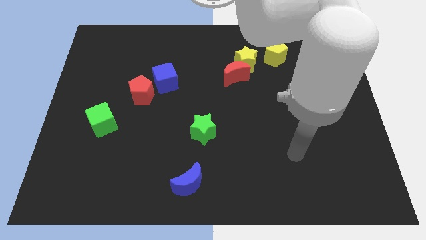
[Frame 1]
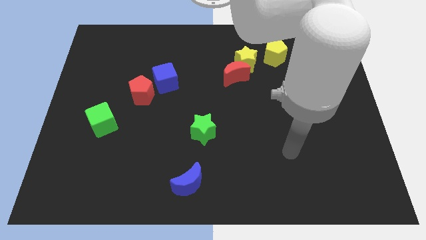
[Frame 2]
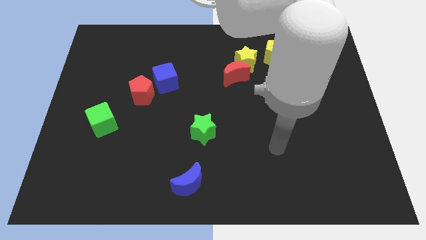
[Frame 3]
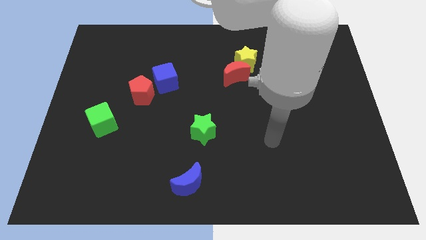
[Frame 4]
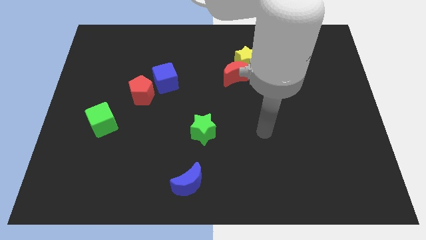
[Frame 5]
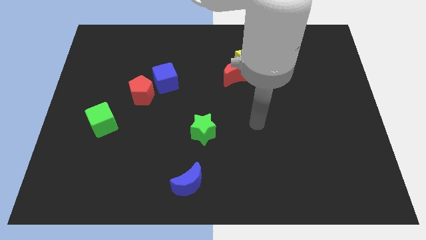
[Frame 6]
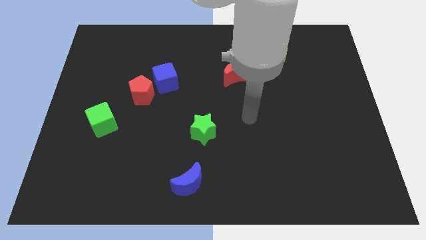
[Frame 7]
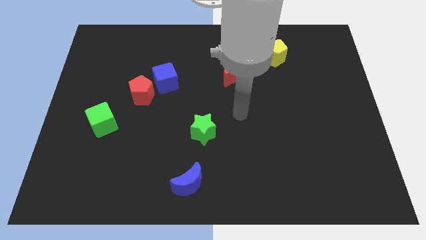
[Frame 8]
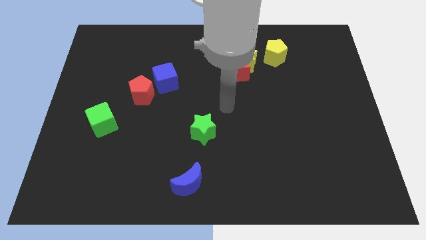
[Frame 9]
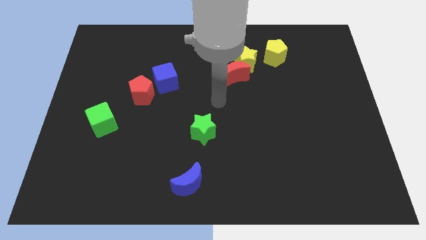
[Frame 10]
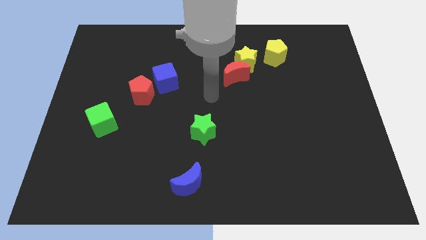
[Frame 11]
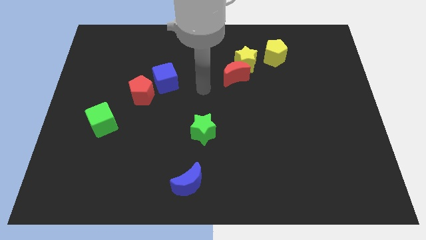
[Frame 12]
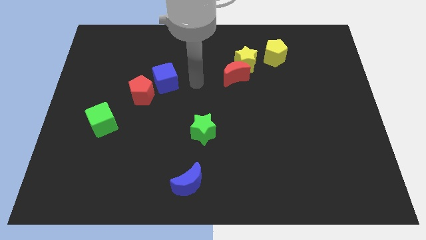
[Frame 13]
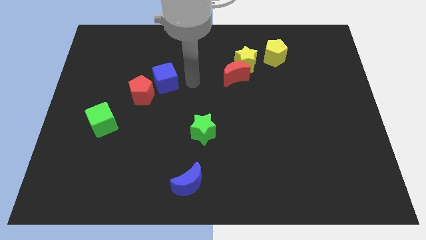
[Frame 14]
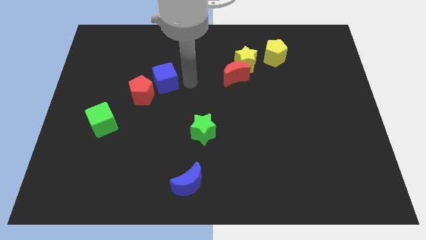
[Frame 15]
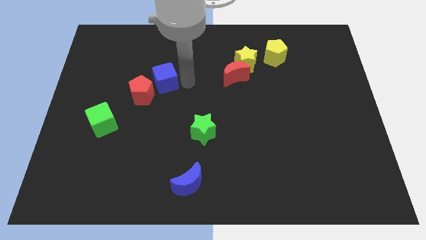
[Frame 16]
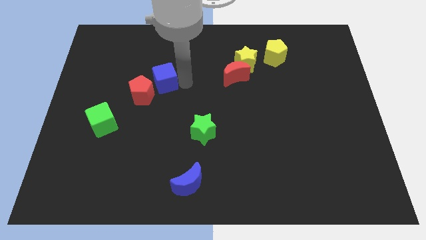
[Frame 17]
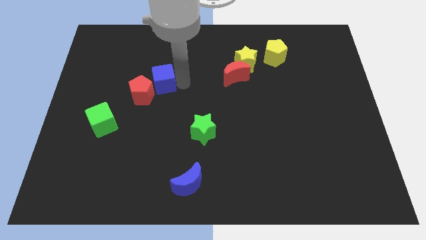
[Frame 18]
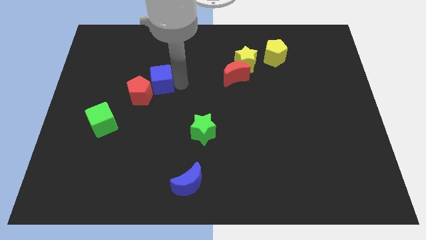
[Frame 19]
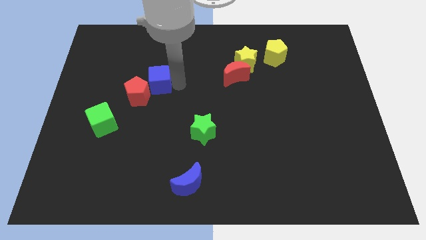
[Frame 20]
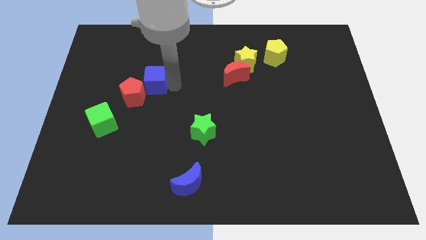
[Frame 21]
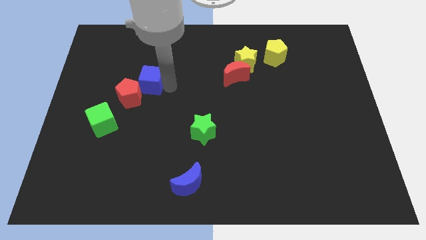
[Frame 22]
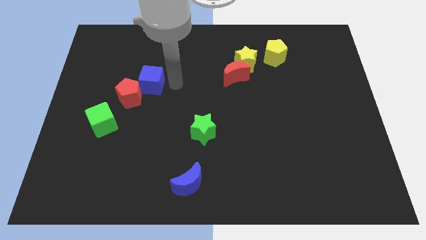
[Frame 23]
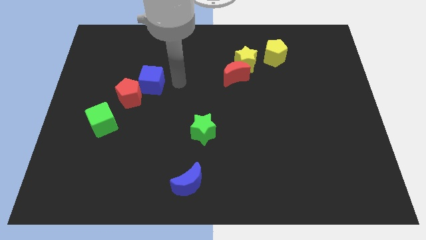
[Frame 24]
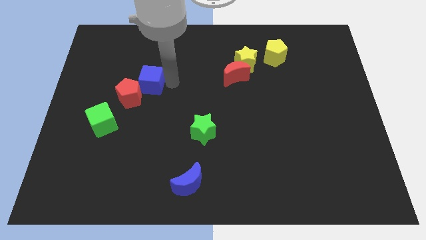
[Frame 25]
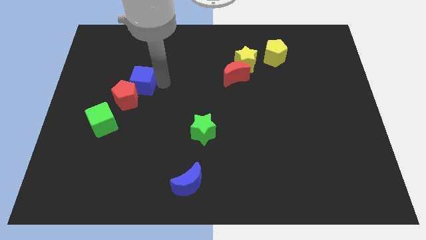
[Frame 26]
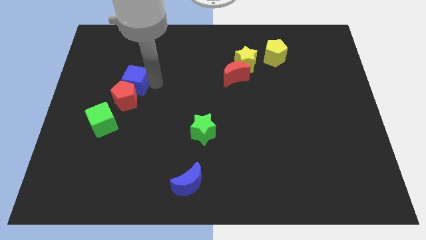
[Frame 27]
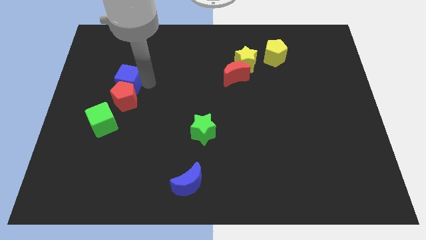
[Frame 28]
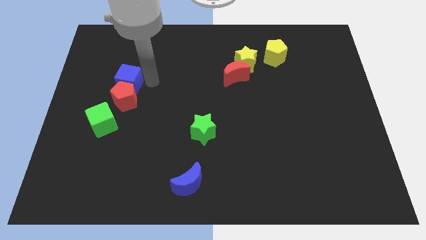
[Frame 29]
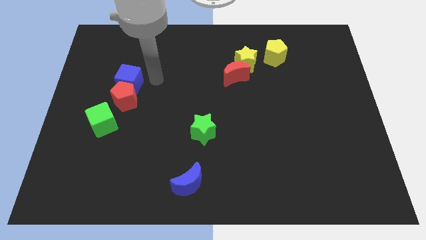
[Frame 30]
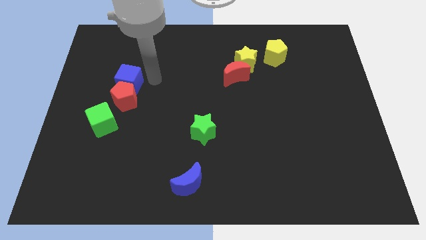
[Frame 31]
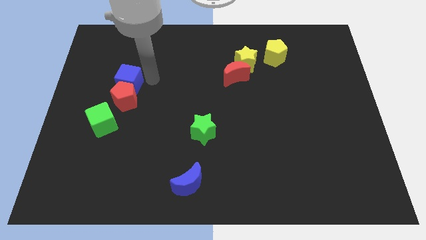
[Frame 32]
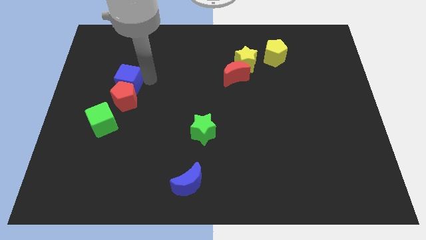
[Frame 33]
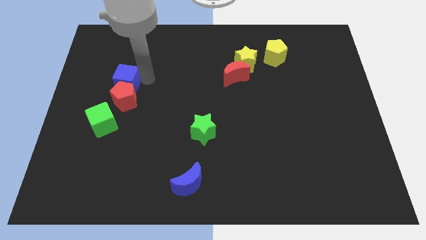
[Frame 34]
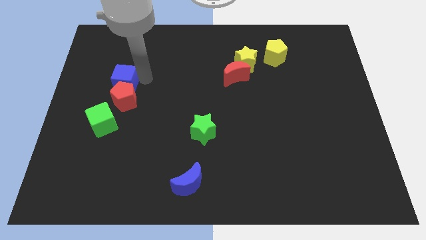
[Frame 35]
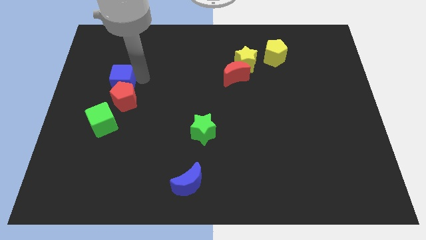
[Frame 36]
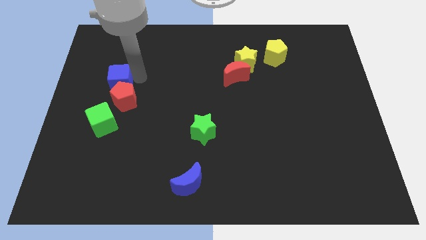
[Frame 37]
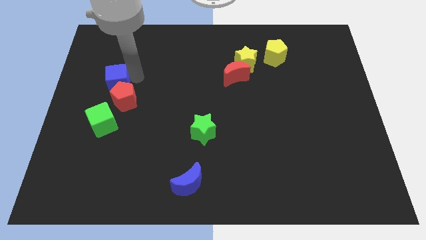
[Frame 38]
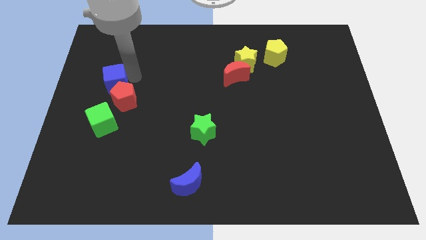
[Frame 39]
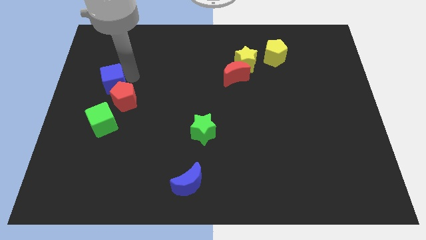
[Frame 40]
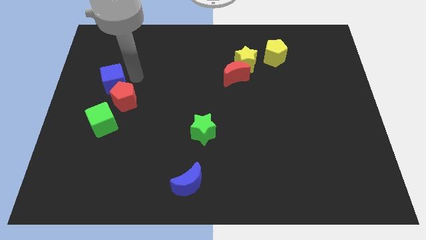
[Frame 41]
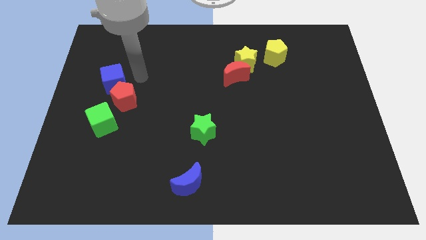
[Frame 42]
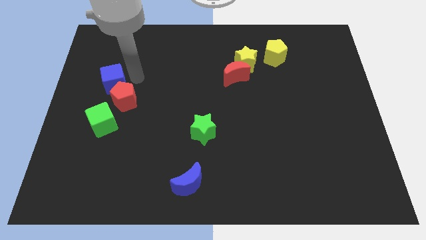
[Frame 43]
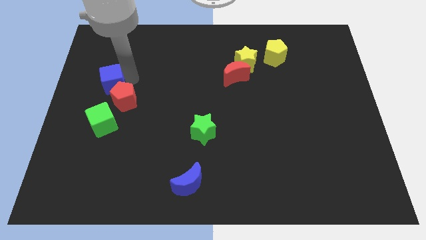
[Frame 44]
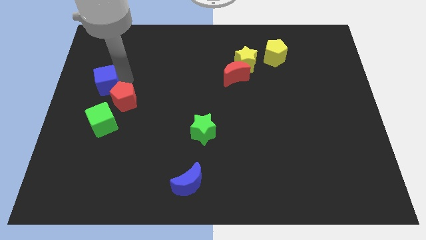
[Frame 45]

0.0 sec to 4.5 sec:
push the blue cube to the left side

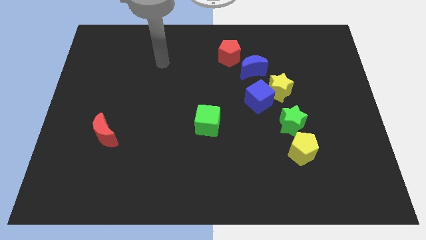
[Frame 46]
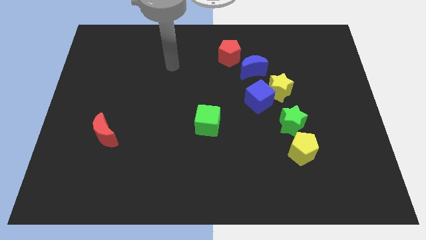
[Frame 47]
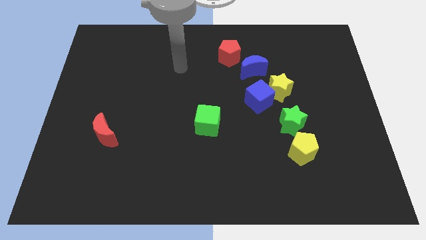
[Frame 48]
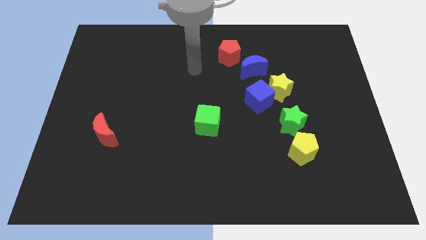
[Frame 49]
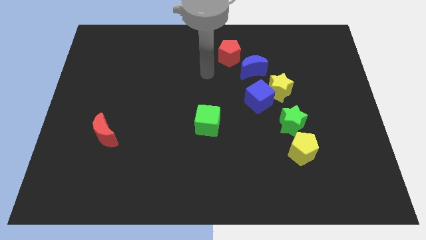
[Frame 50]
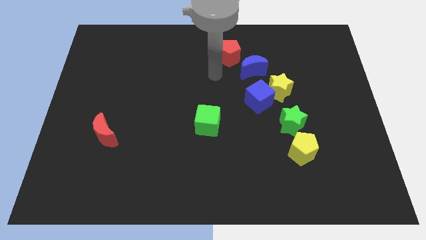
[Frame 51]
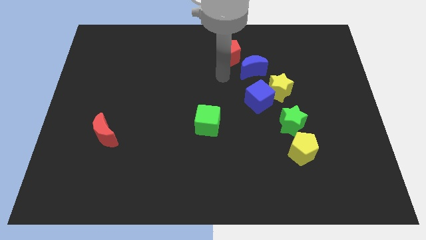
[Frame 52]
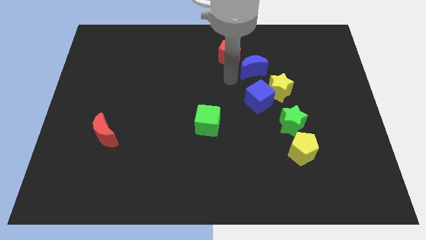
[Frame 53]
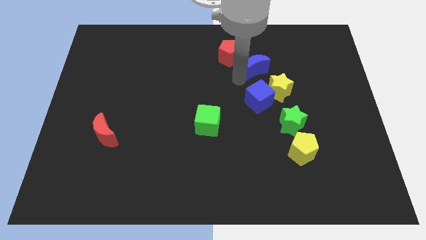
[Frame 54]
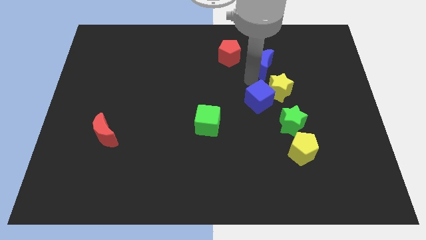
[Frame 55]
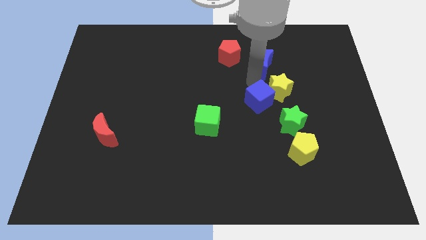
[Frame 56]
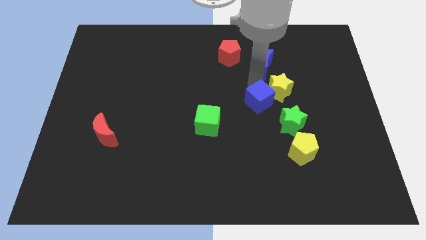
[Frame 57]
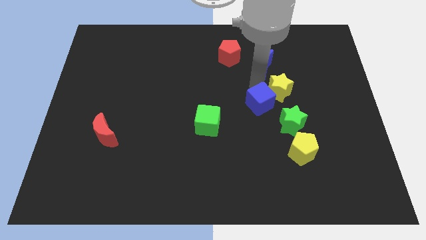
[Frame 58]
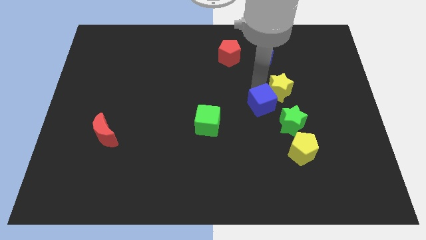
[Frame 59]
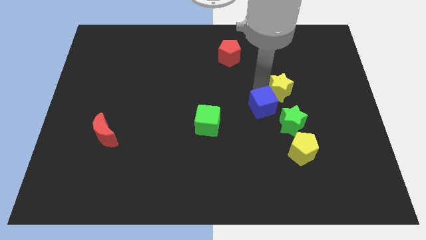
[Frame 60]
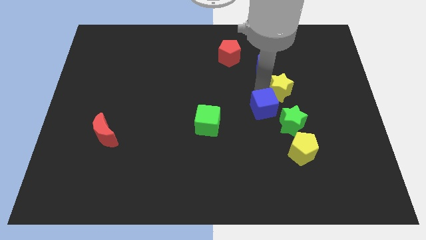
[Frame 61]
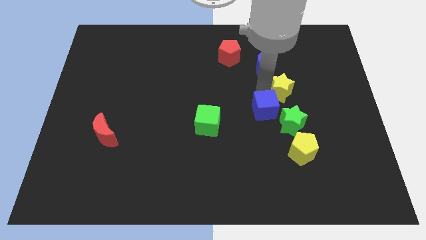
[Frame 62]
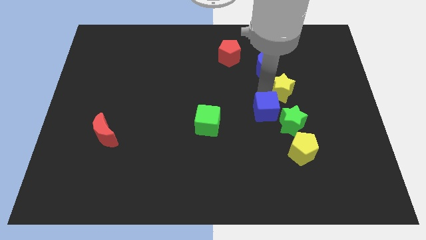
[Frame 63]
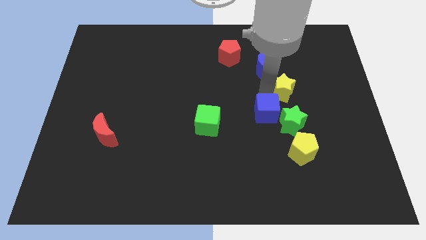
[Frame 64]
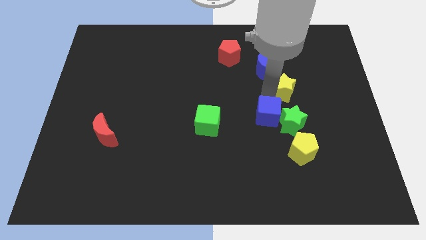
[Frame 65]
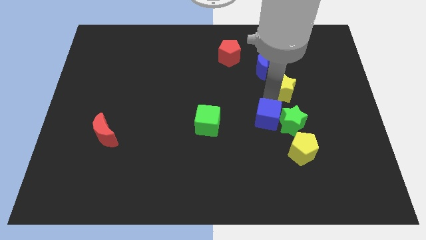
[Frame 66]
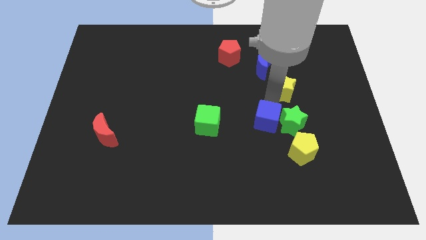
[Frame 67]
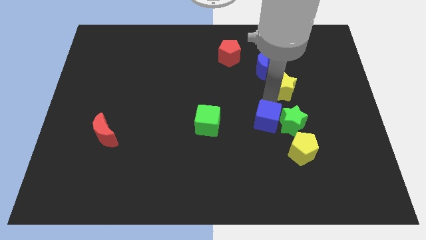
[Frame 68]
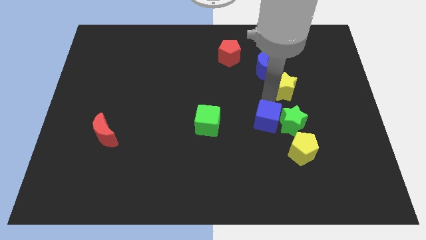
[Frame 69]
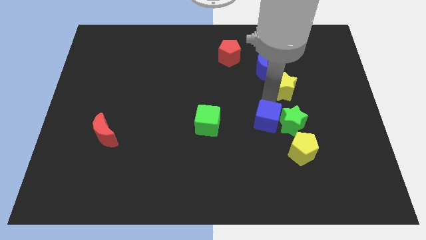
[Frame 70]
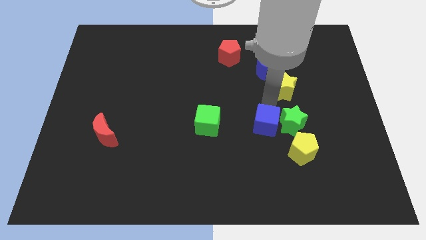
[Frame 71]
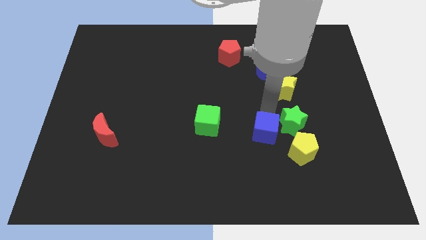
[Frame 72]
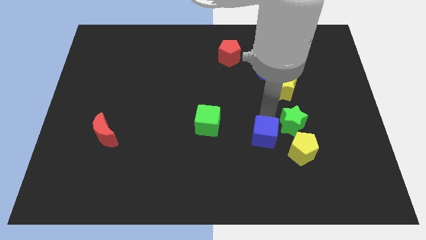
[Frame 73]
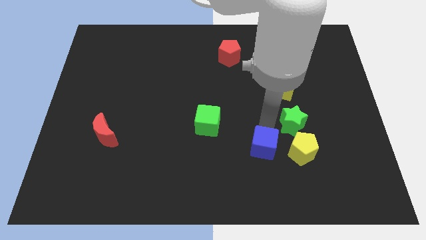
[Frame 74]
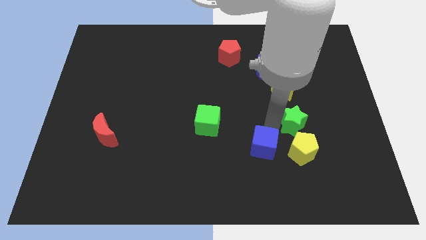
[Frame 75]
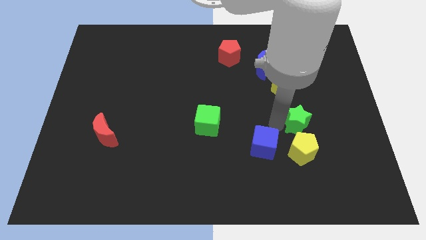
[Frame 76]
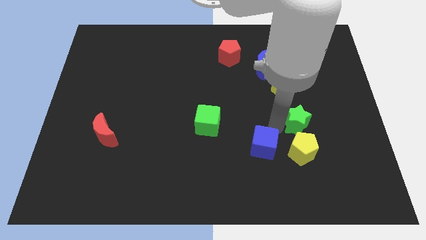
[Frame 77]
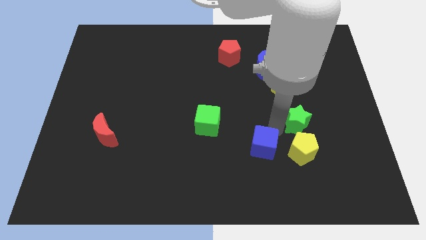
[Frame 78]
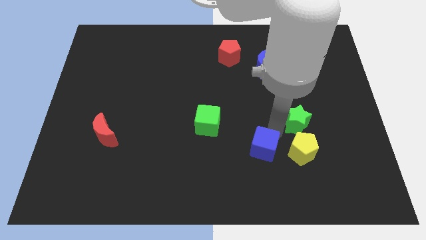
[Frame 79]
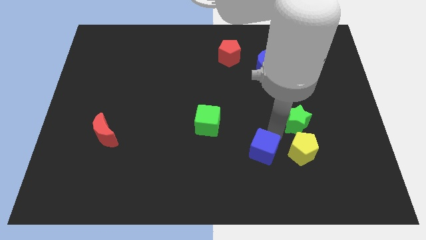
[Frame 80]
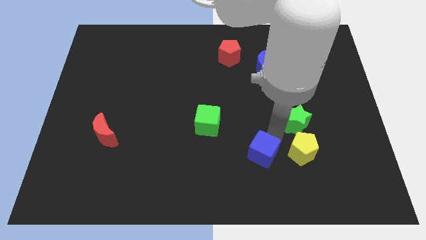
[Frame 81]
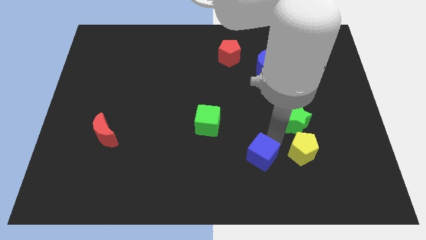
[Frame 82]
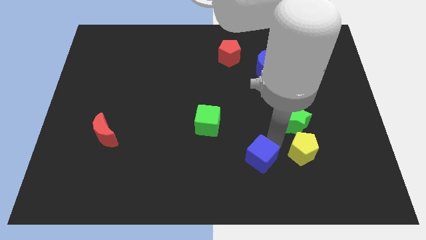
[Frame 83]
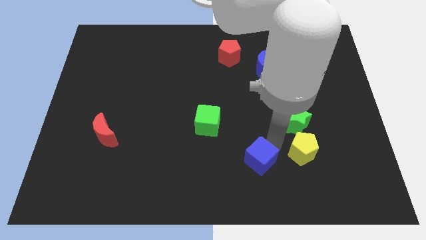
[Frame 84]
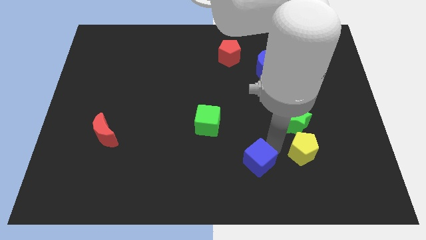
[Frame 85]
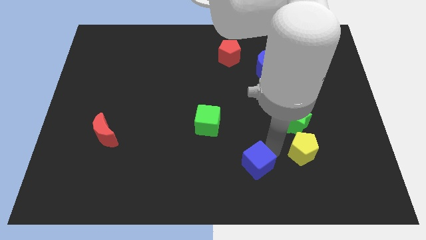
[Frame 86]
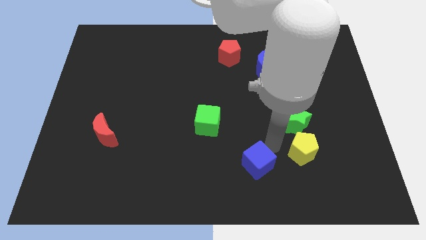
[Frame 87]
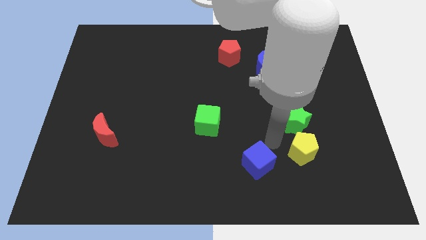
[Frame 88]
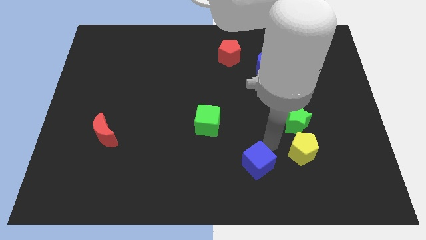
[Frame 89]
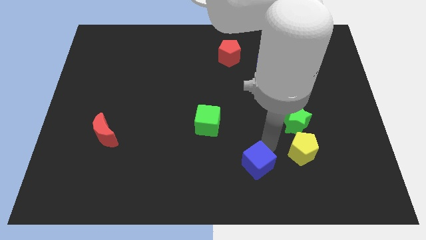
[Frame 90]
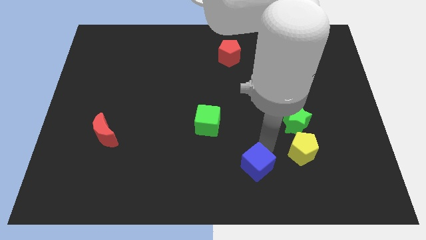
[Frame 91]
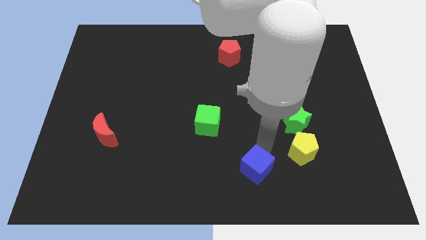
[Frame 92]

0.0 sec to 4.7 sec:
push the blue cube to the bottom side
